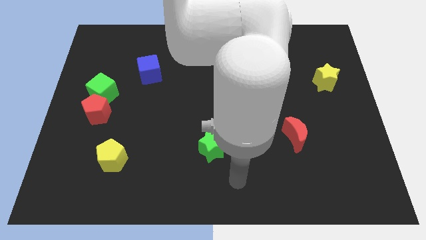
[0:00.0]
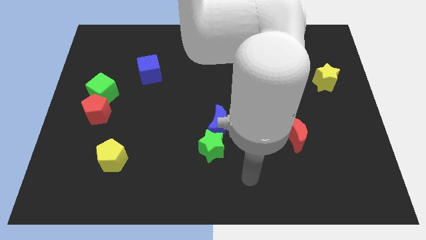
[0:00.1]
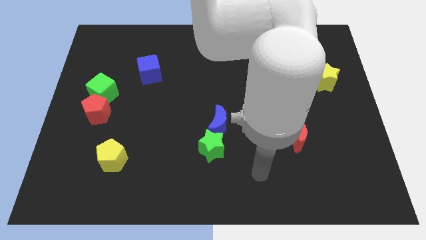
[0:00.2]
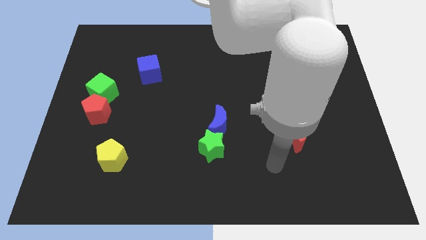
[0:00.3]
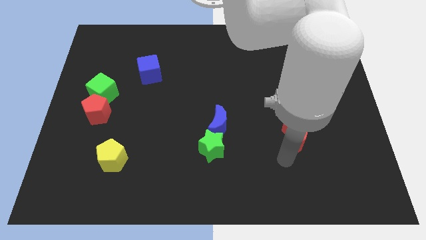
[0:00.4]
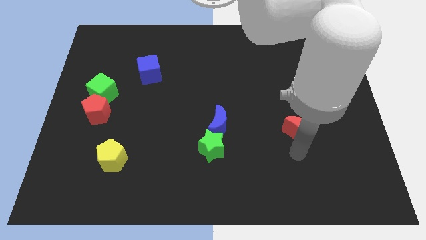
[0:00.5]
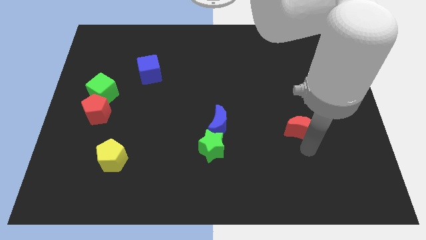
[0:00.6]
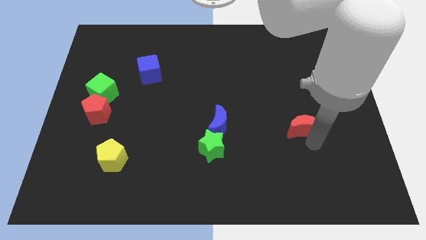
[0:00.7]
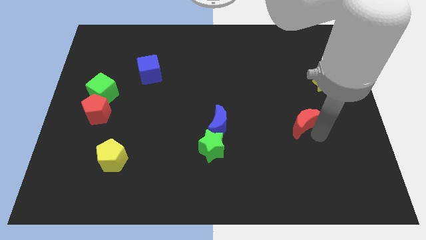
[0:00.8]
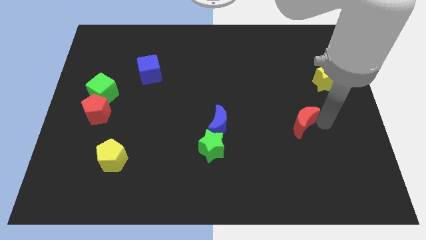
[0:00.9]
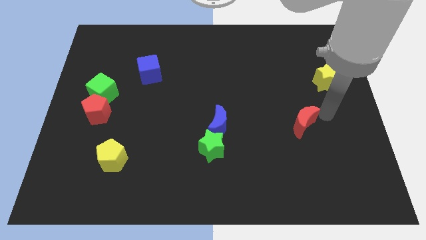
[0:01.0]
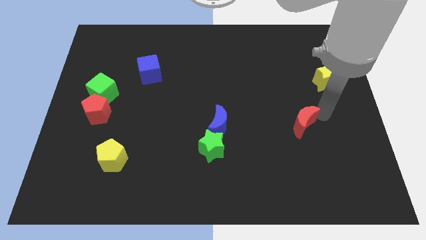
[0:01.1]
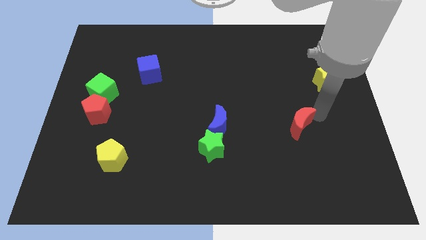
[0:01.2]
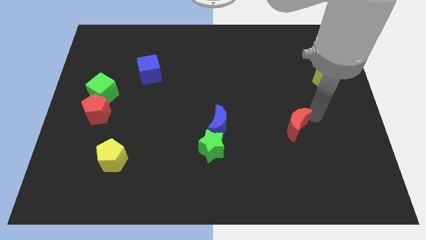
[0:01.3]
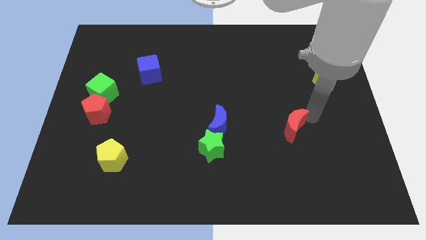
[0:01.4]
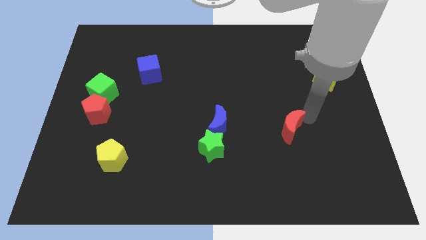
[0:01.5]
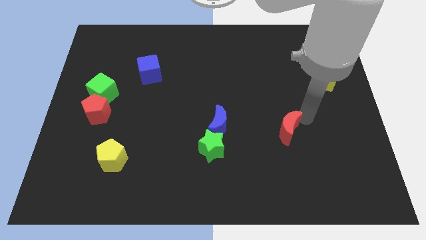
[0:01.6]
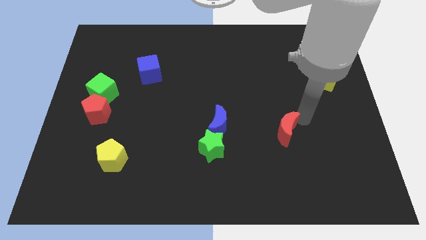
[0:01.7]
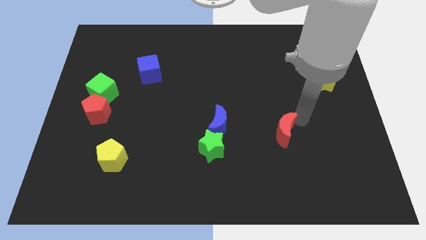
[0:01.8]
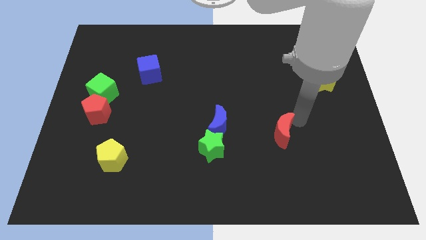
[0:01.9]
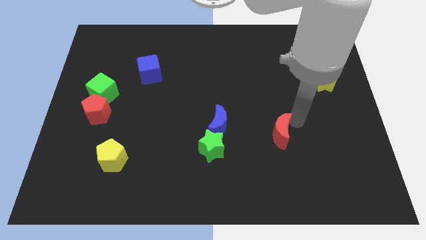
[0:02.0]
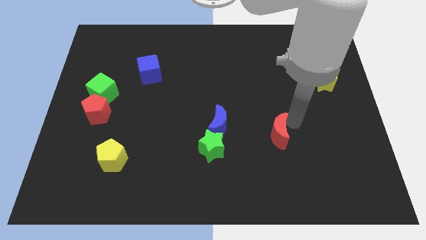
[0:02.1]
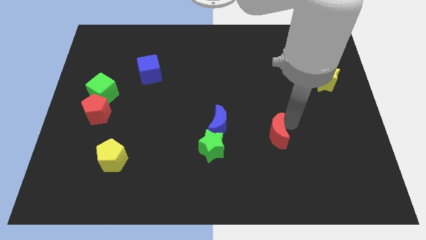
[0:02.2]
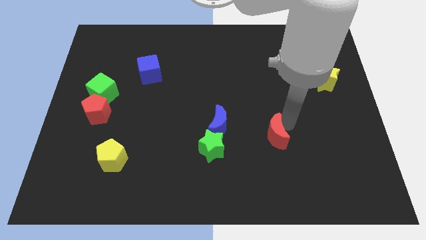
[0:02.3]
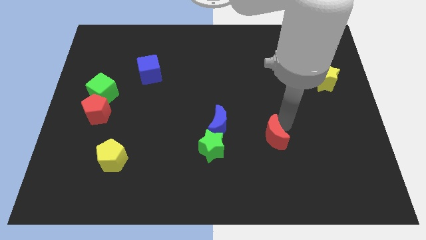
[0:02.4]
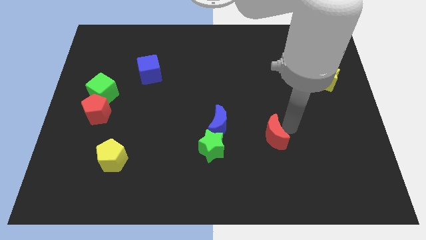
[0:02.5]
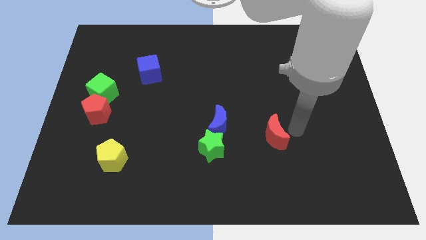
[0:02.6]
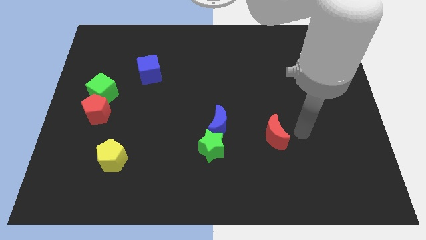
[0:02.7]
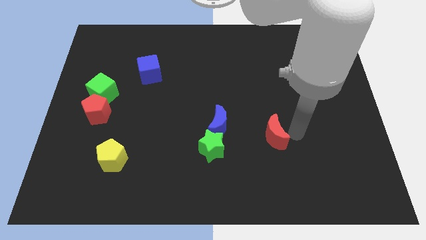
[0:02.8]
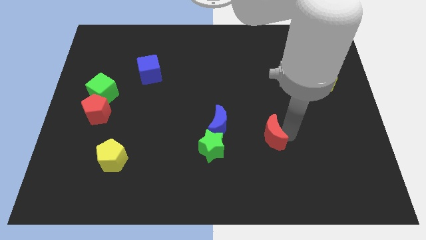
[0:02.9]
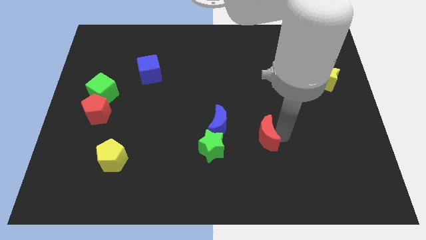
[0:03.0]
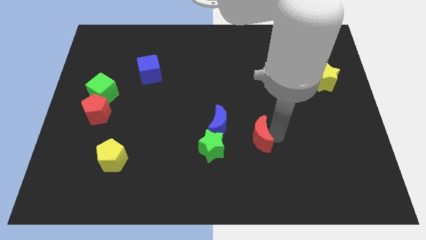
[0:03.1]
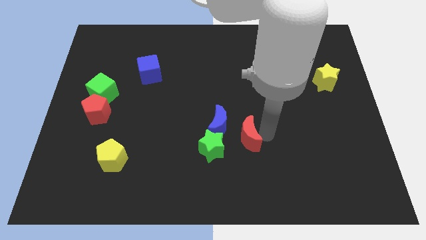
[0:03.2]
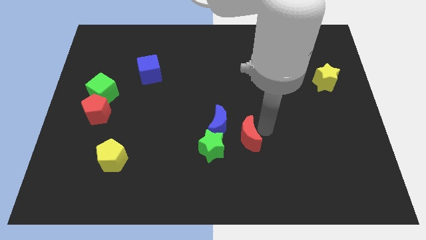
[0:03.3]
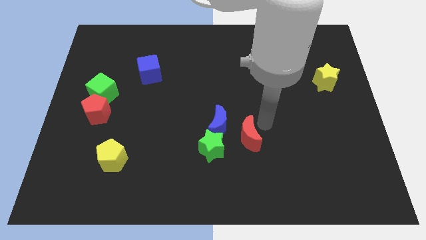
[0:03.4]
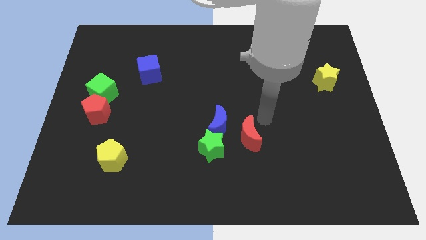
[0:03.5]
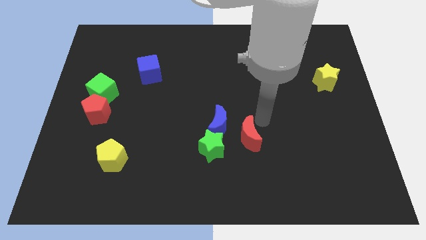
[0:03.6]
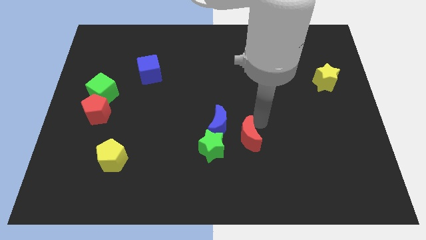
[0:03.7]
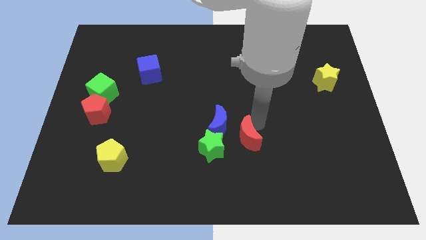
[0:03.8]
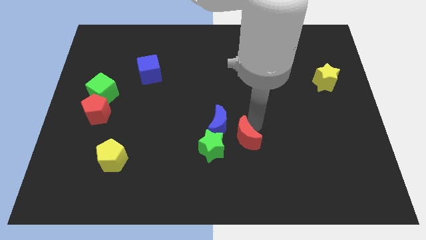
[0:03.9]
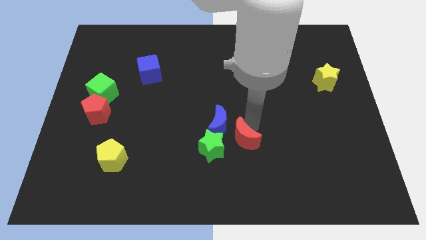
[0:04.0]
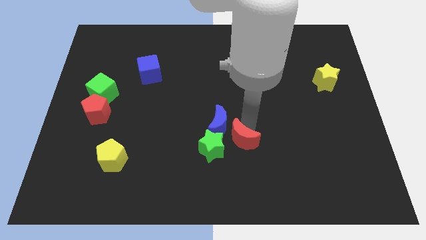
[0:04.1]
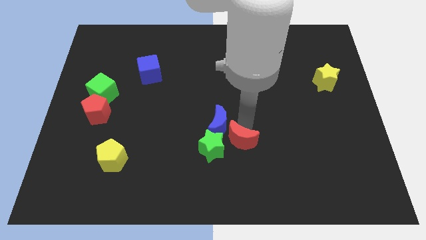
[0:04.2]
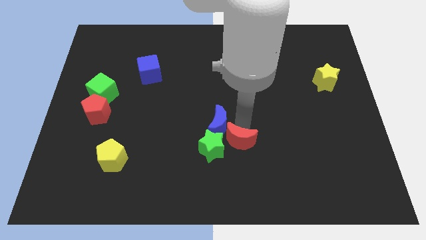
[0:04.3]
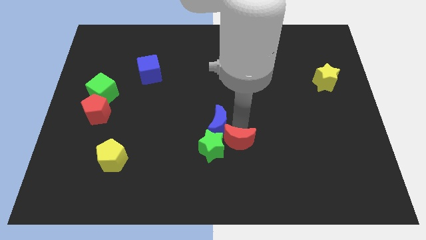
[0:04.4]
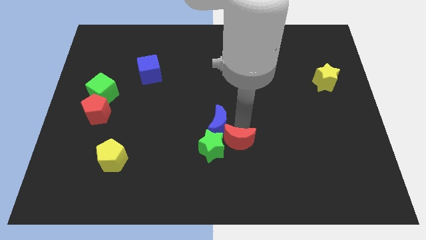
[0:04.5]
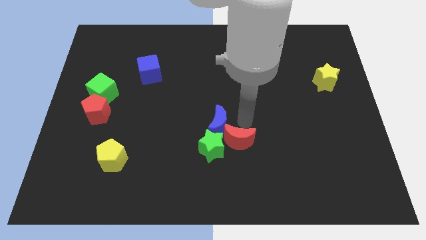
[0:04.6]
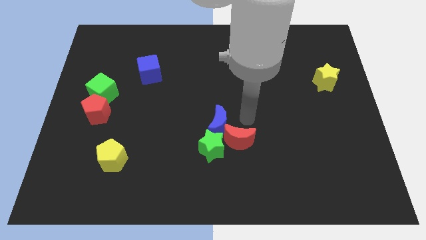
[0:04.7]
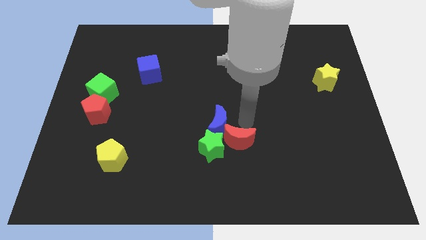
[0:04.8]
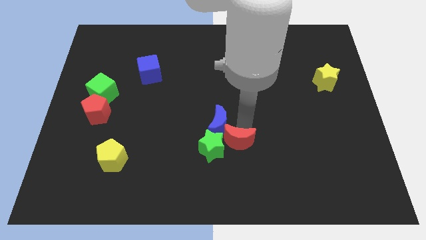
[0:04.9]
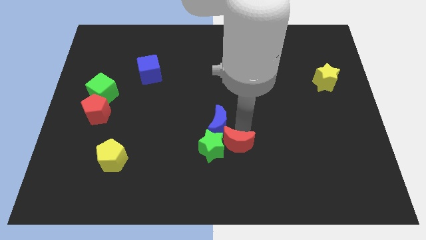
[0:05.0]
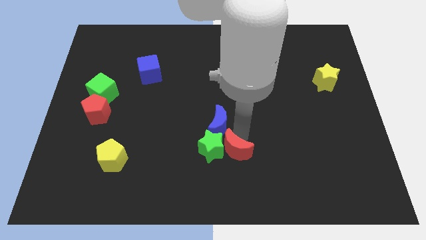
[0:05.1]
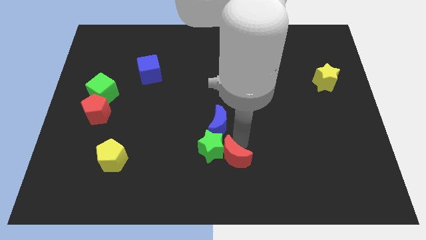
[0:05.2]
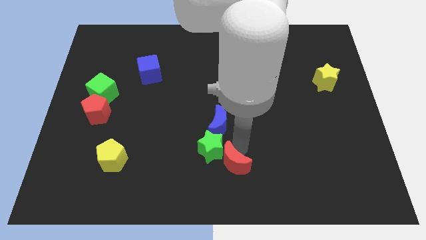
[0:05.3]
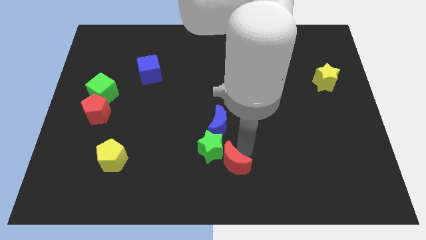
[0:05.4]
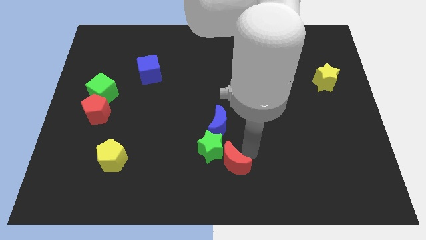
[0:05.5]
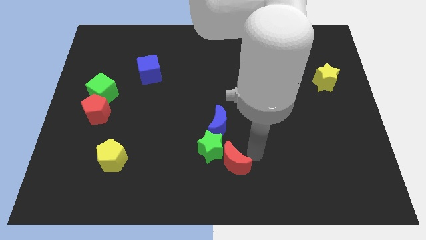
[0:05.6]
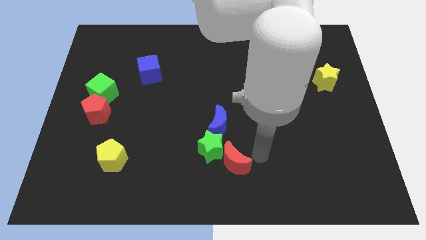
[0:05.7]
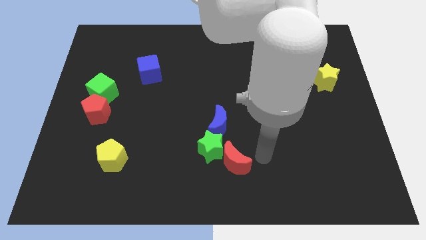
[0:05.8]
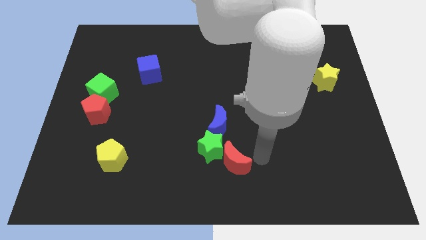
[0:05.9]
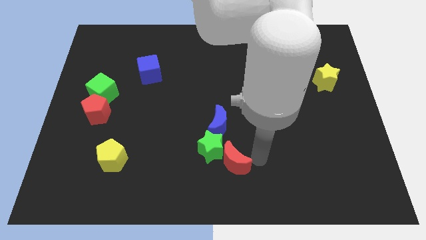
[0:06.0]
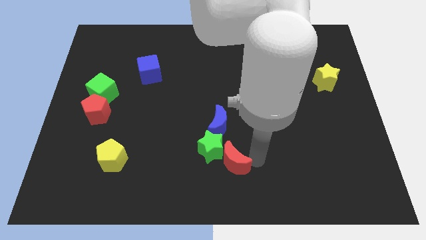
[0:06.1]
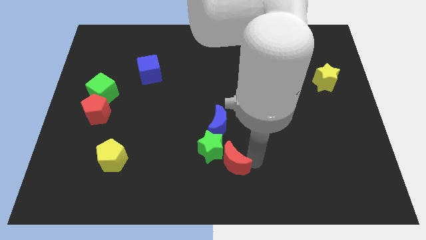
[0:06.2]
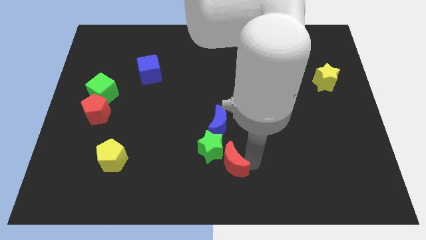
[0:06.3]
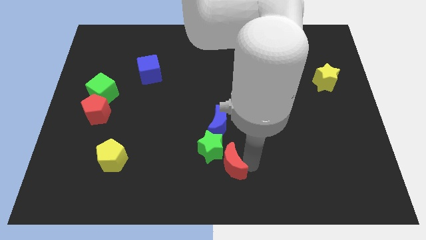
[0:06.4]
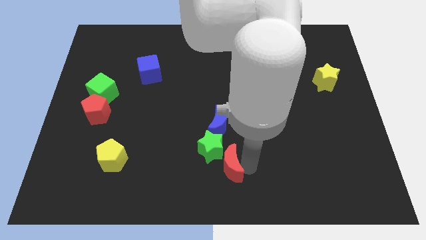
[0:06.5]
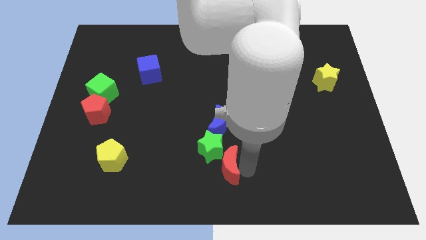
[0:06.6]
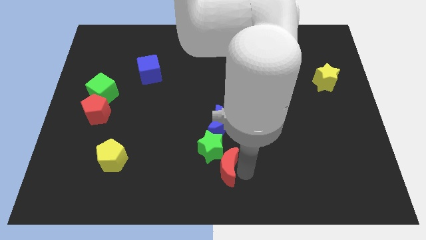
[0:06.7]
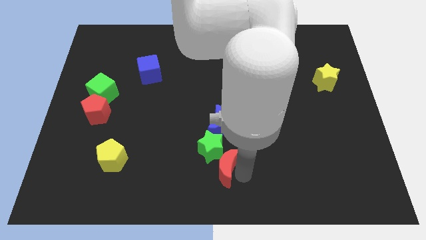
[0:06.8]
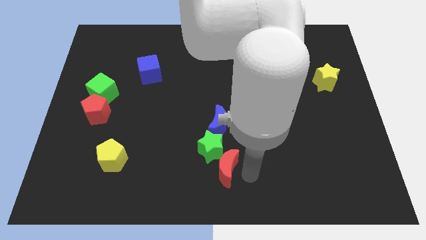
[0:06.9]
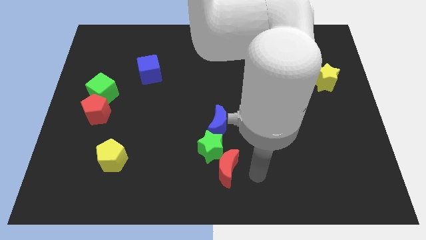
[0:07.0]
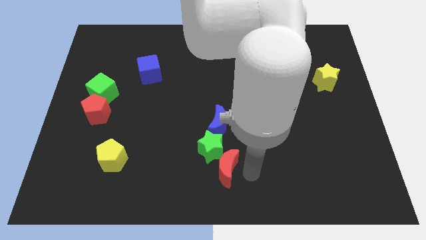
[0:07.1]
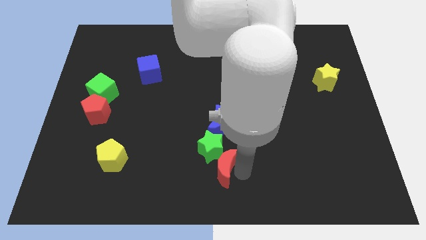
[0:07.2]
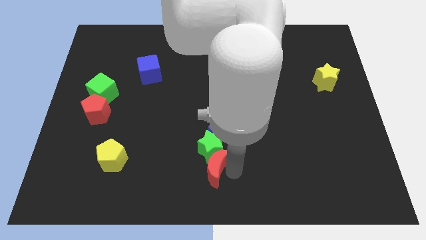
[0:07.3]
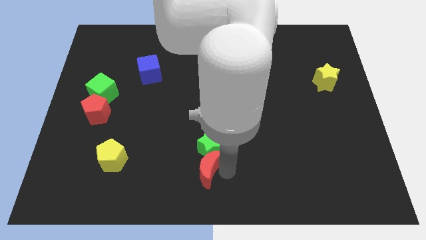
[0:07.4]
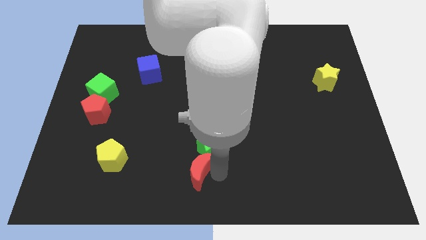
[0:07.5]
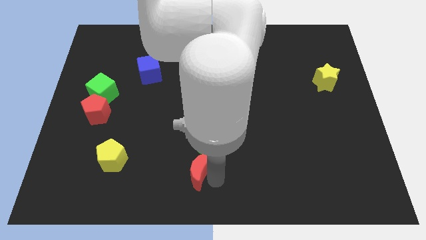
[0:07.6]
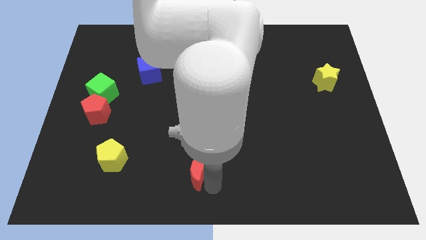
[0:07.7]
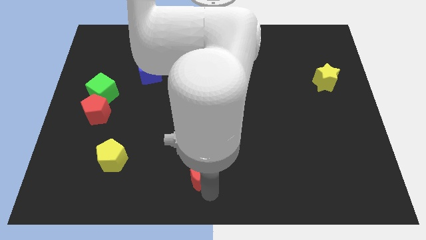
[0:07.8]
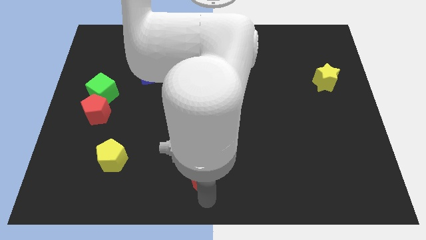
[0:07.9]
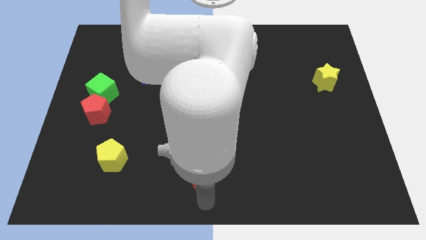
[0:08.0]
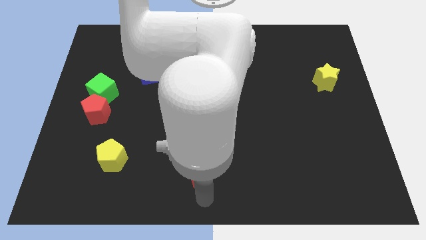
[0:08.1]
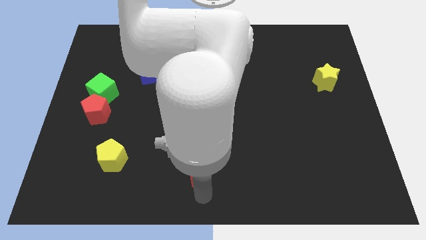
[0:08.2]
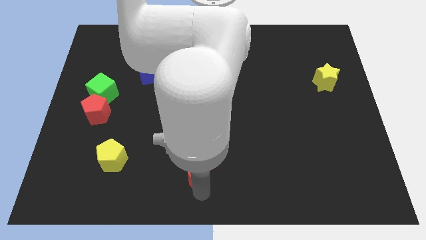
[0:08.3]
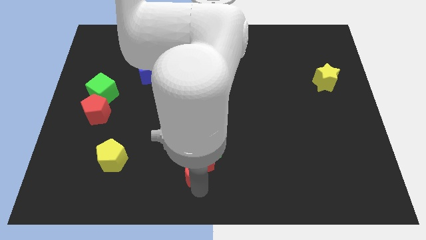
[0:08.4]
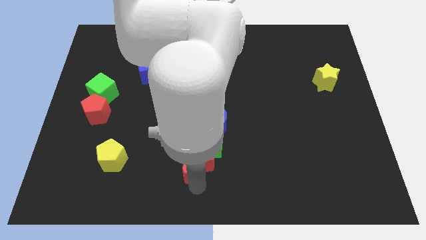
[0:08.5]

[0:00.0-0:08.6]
slide the red moon diagonally down and to the left of the blue moon
